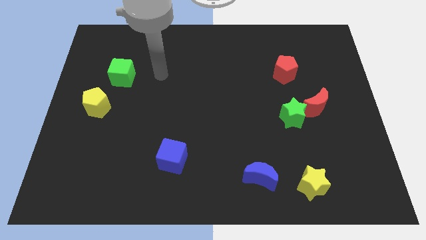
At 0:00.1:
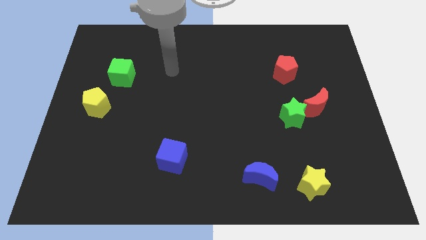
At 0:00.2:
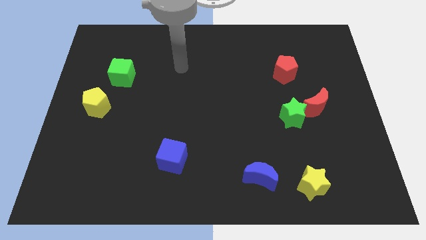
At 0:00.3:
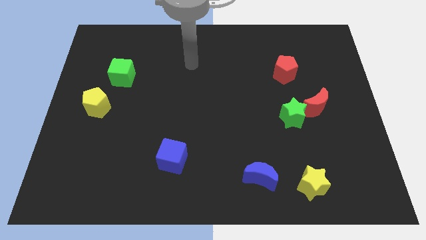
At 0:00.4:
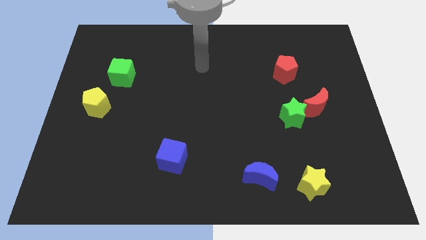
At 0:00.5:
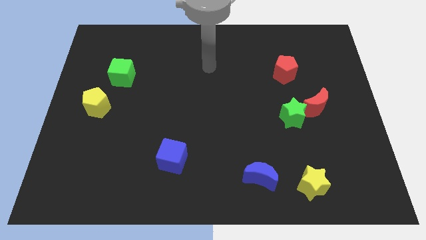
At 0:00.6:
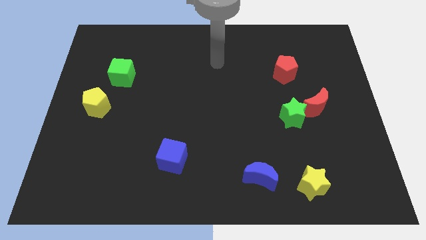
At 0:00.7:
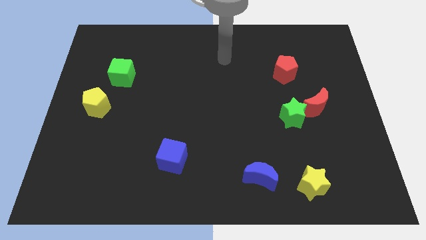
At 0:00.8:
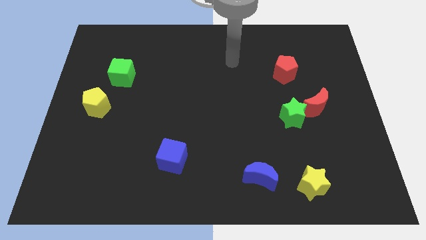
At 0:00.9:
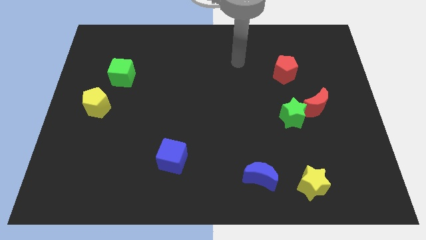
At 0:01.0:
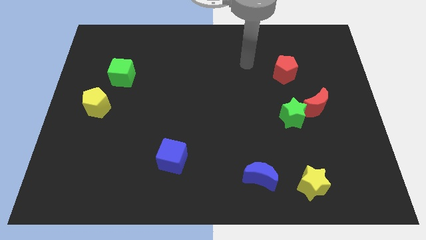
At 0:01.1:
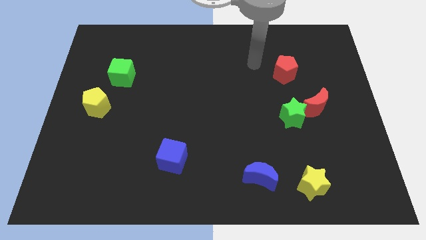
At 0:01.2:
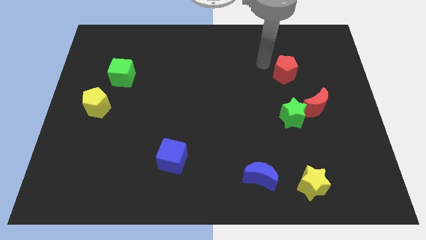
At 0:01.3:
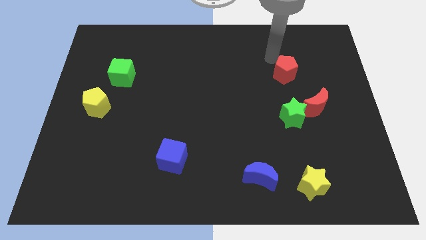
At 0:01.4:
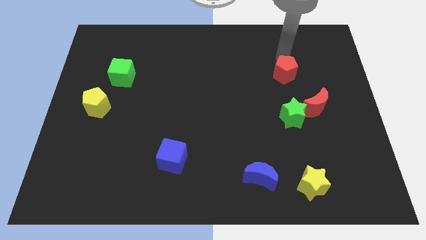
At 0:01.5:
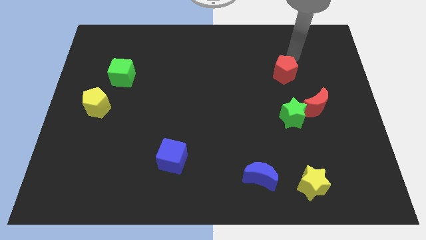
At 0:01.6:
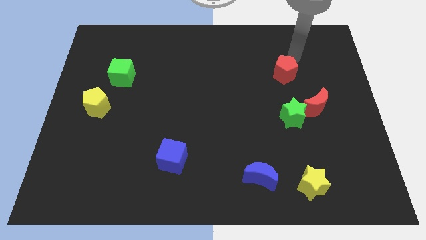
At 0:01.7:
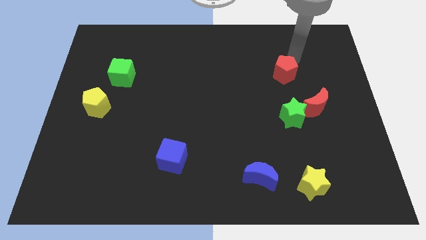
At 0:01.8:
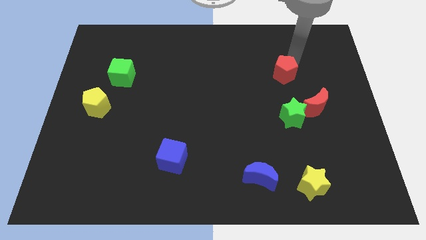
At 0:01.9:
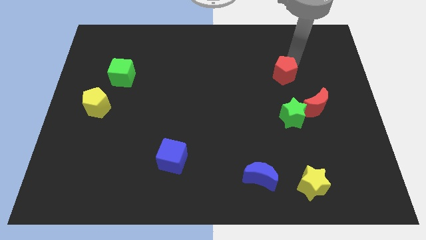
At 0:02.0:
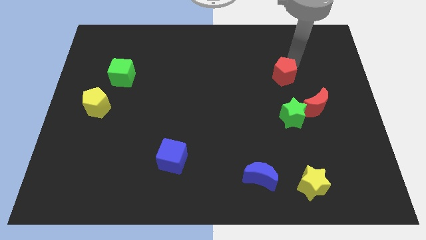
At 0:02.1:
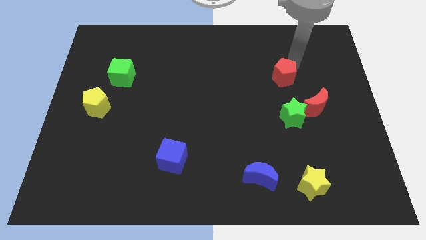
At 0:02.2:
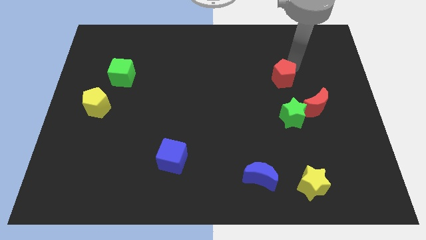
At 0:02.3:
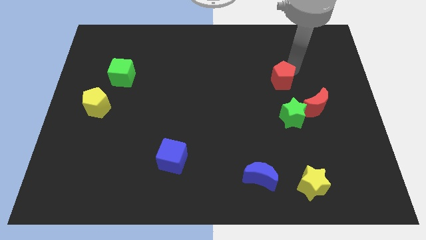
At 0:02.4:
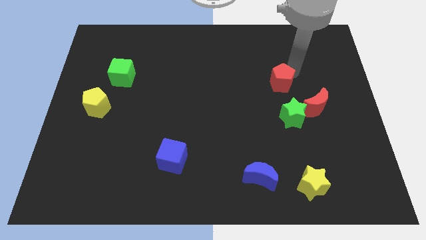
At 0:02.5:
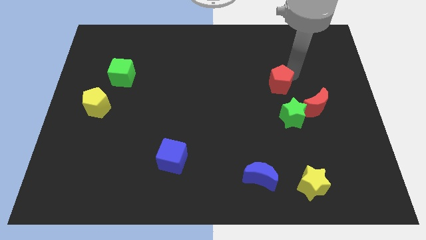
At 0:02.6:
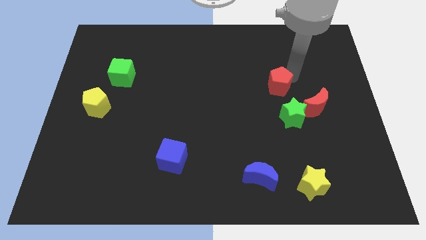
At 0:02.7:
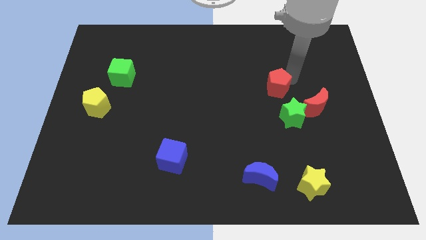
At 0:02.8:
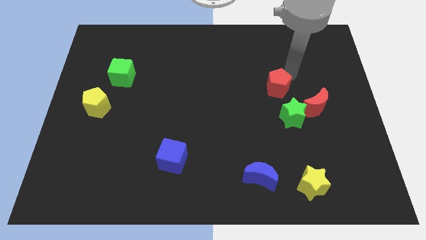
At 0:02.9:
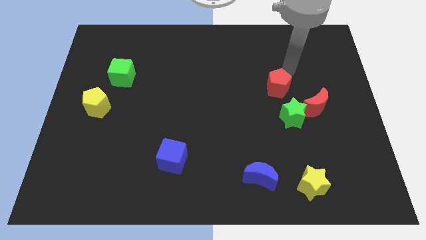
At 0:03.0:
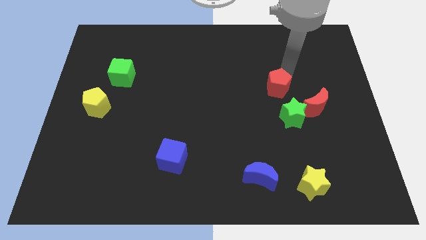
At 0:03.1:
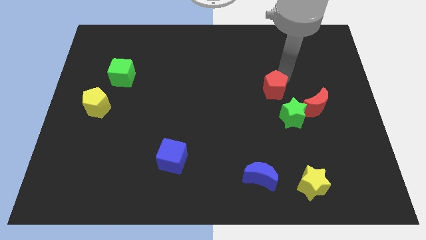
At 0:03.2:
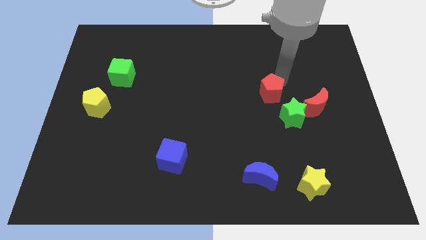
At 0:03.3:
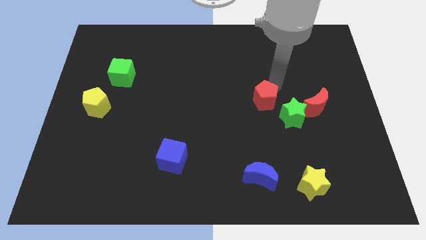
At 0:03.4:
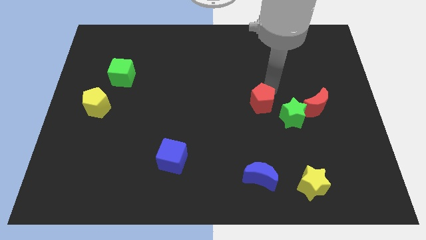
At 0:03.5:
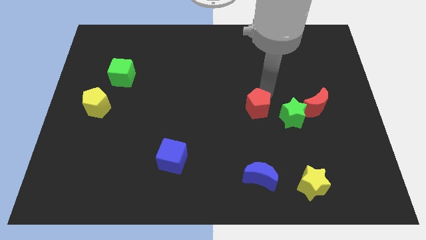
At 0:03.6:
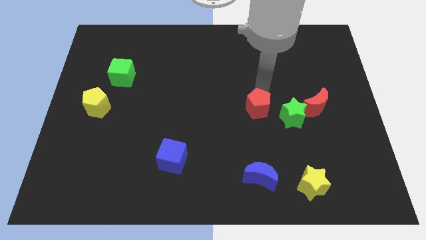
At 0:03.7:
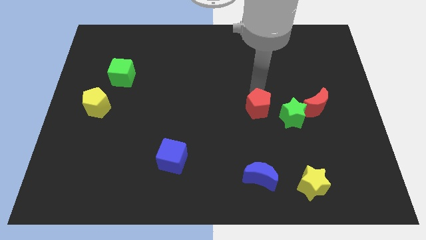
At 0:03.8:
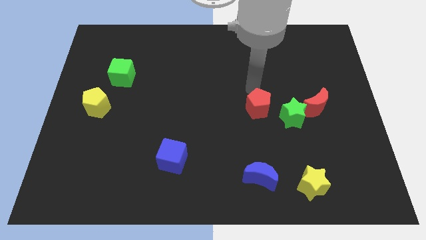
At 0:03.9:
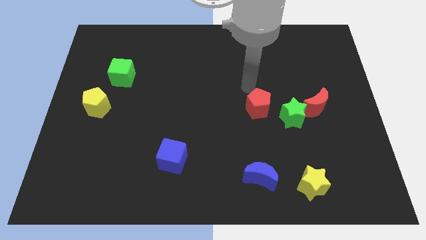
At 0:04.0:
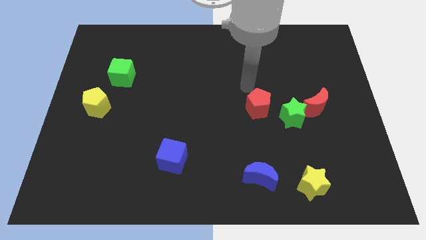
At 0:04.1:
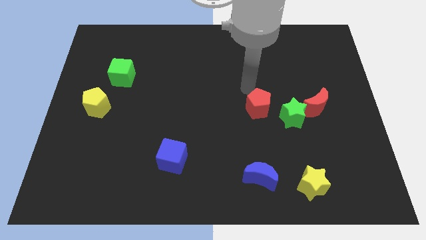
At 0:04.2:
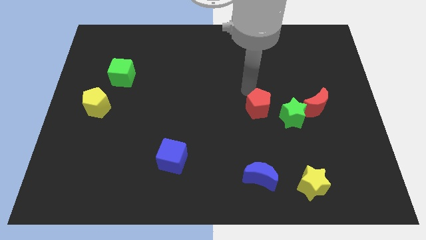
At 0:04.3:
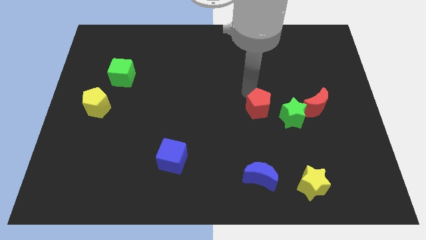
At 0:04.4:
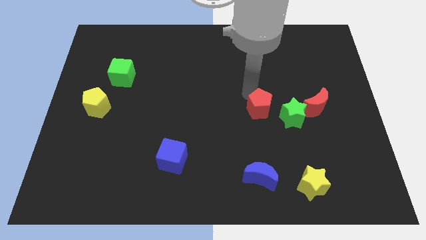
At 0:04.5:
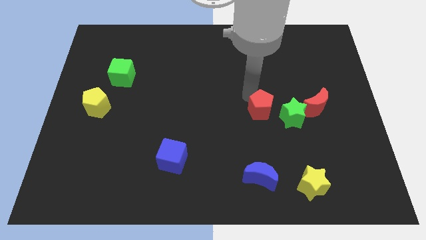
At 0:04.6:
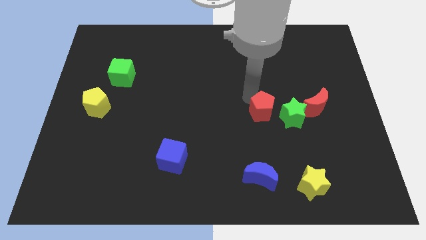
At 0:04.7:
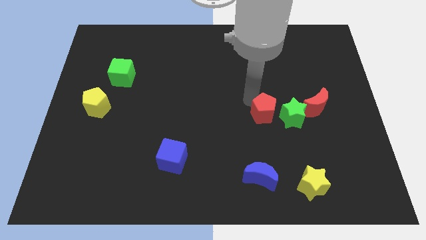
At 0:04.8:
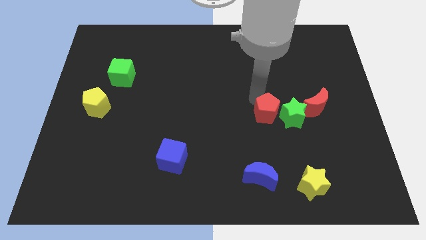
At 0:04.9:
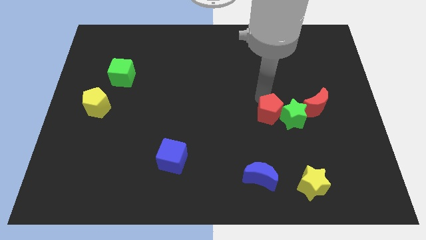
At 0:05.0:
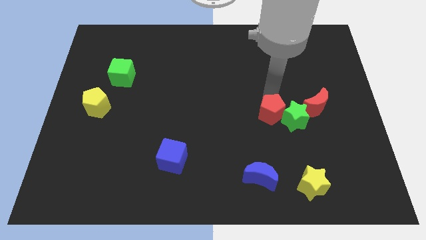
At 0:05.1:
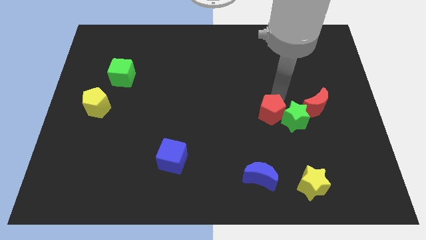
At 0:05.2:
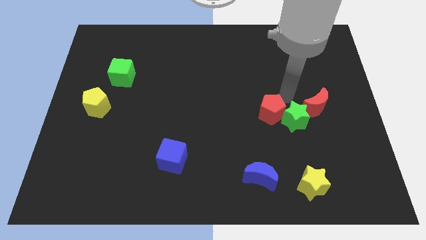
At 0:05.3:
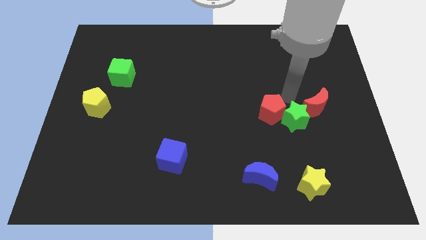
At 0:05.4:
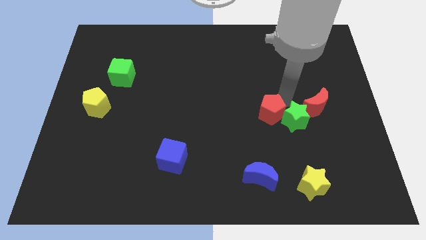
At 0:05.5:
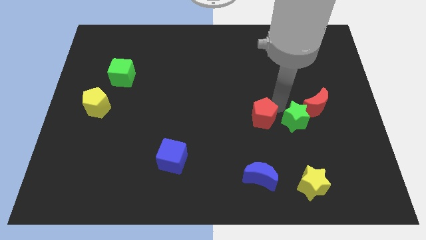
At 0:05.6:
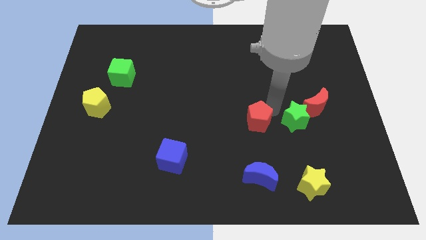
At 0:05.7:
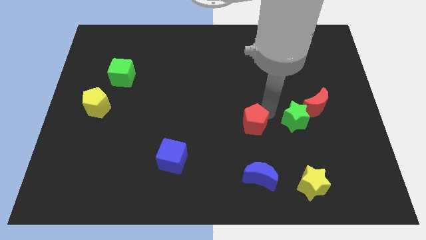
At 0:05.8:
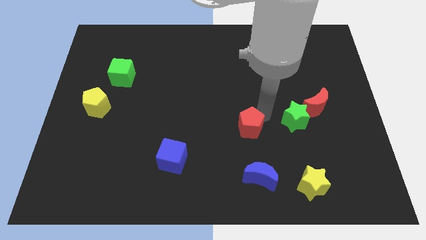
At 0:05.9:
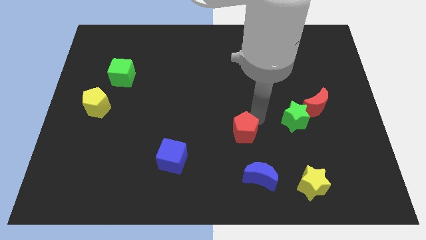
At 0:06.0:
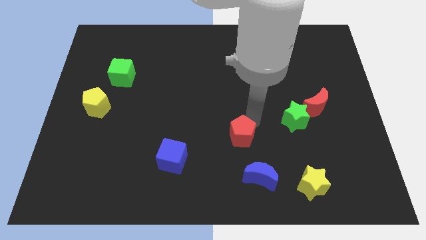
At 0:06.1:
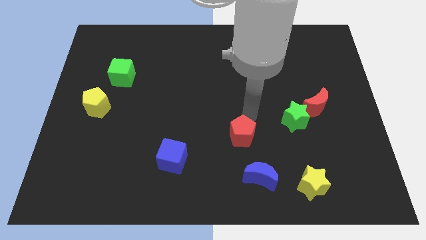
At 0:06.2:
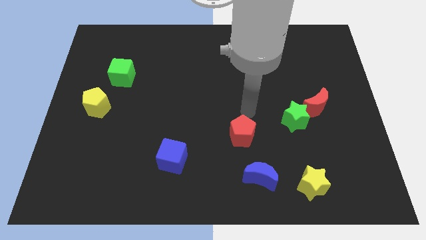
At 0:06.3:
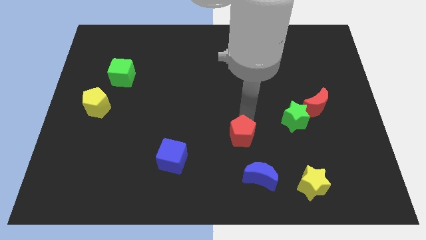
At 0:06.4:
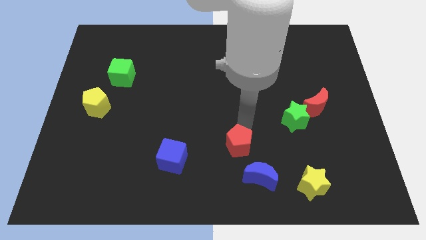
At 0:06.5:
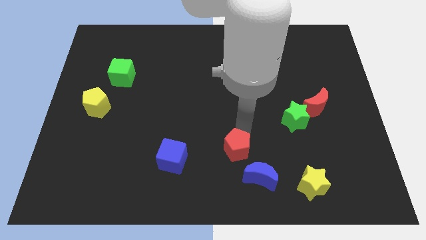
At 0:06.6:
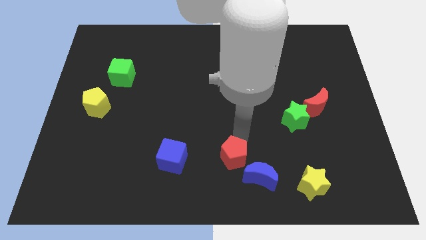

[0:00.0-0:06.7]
push the red pentagon to the bottom
